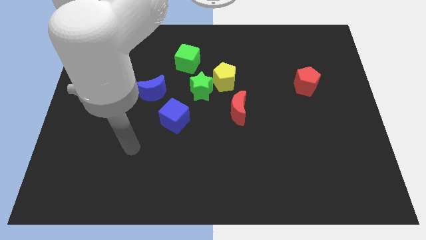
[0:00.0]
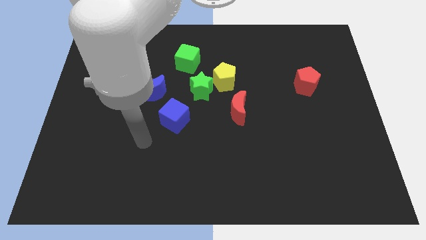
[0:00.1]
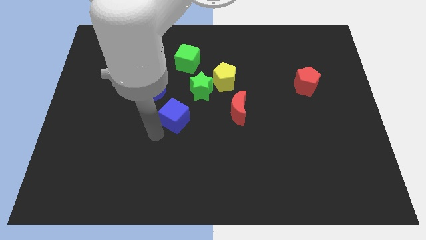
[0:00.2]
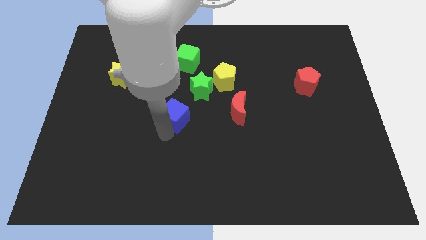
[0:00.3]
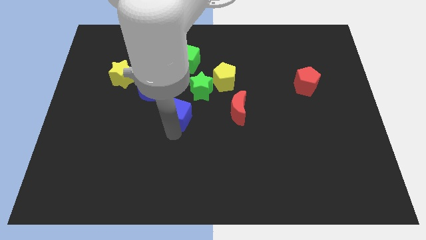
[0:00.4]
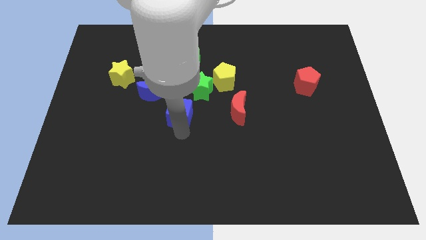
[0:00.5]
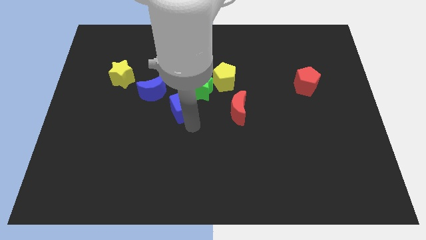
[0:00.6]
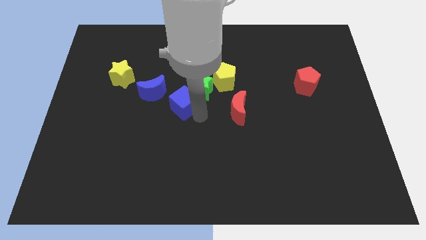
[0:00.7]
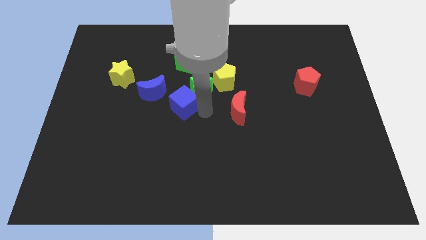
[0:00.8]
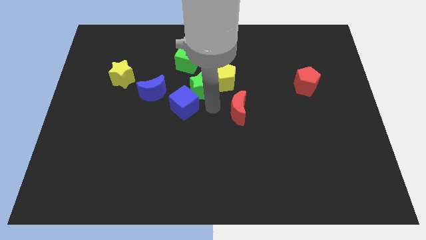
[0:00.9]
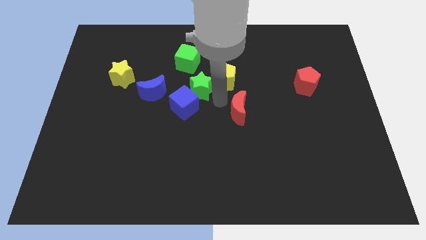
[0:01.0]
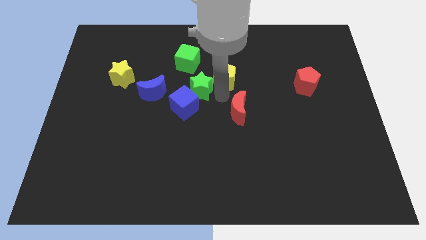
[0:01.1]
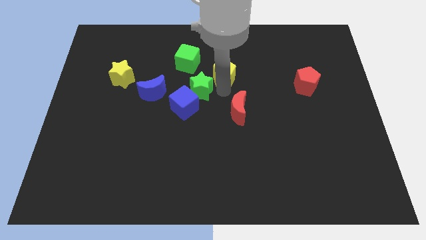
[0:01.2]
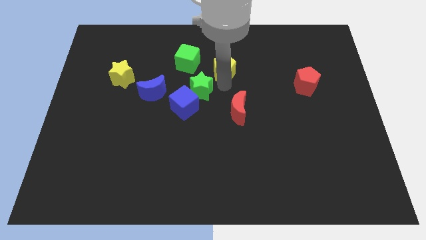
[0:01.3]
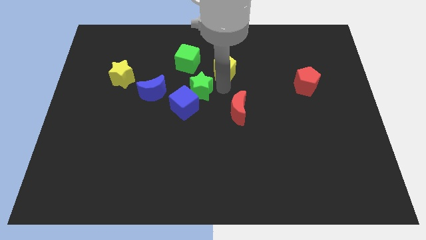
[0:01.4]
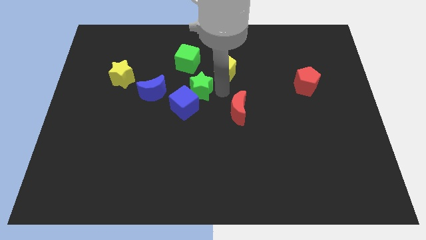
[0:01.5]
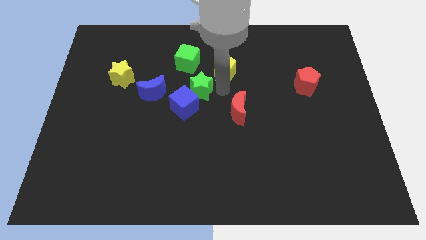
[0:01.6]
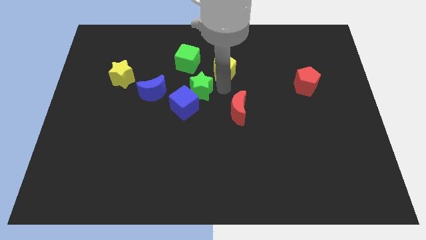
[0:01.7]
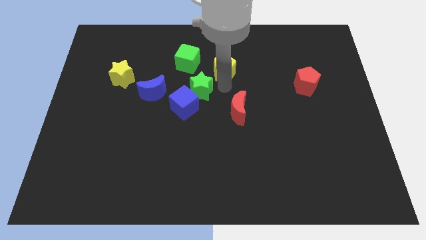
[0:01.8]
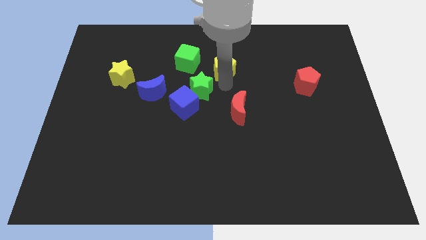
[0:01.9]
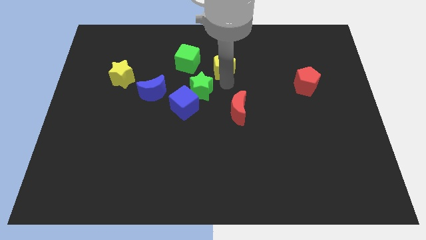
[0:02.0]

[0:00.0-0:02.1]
separate the yellow pentagon from the green star and red moon

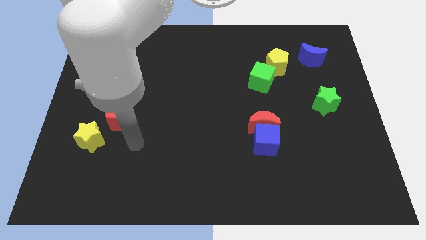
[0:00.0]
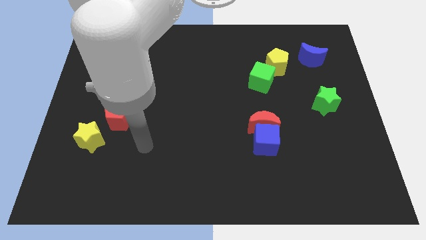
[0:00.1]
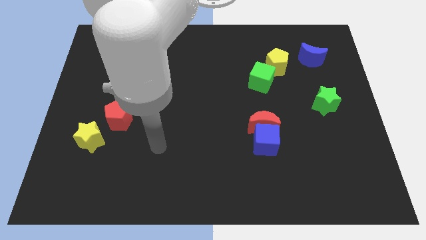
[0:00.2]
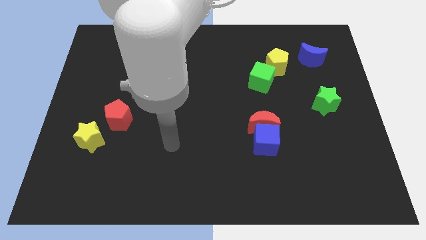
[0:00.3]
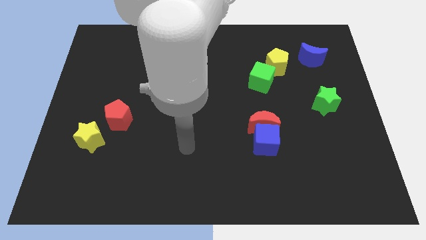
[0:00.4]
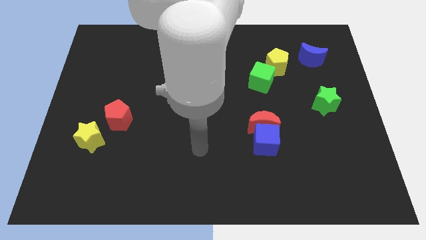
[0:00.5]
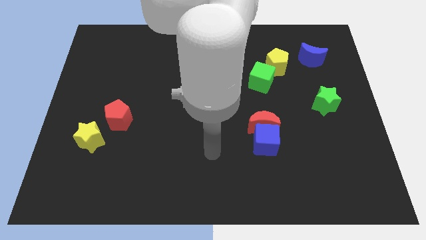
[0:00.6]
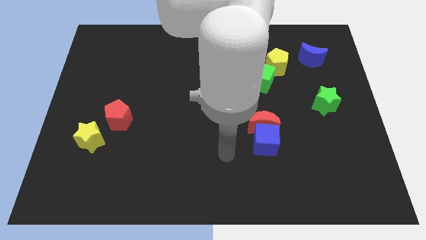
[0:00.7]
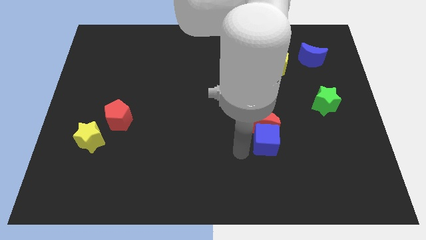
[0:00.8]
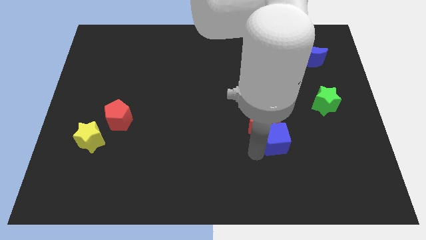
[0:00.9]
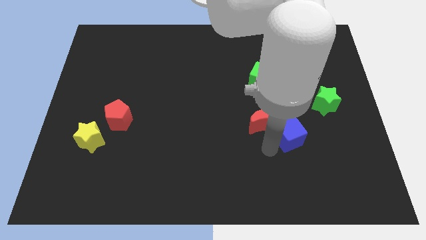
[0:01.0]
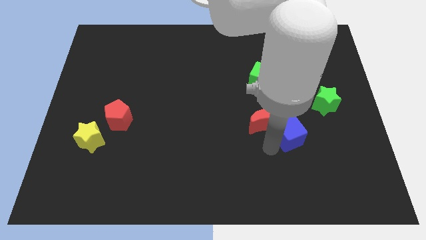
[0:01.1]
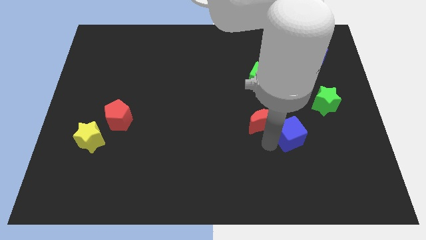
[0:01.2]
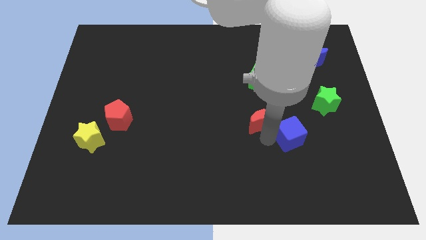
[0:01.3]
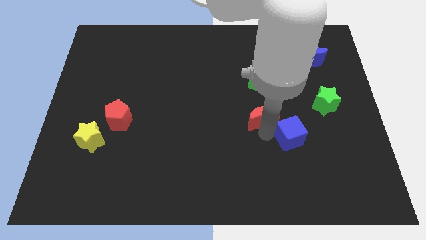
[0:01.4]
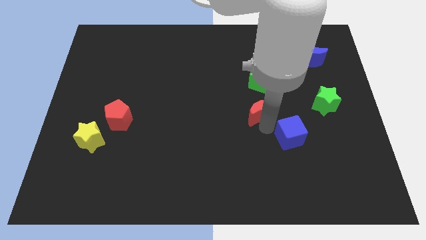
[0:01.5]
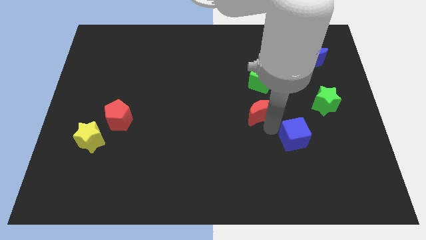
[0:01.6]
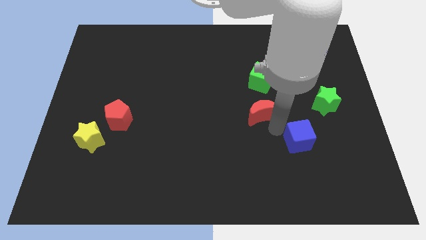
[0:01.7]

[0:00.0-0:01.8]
separate the red moon from the blue cube

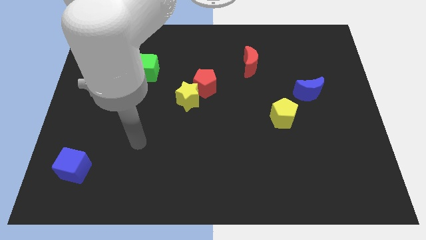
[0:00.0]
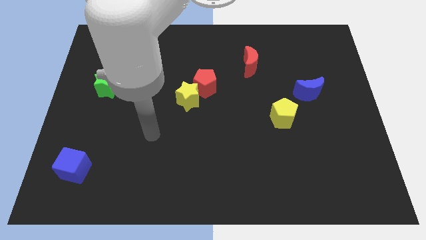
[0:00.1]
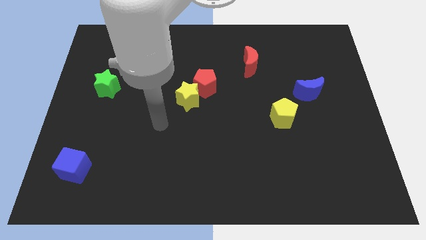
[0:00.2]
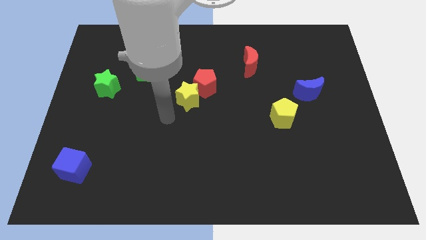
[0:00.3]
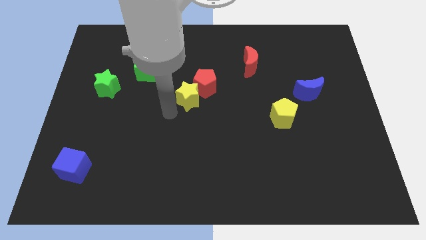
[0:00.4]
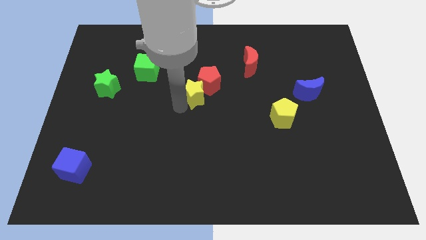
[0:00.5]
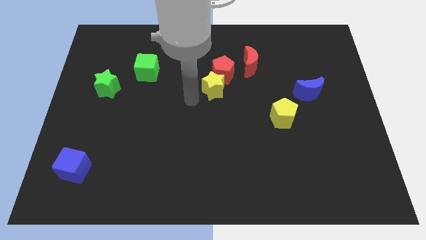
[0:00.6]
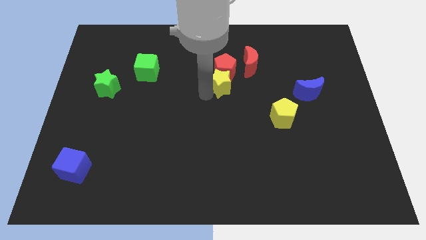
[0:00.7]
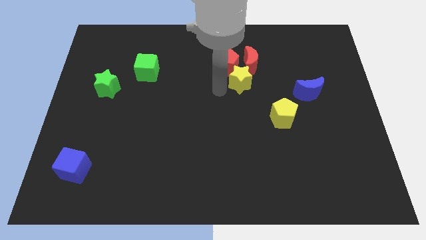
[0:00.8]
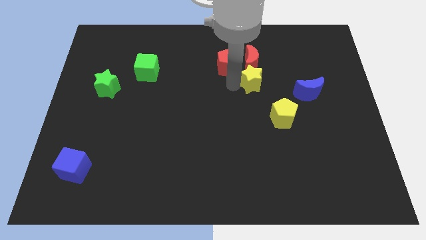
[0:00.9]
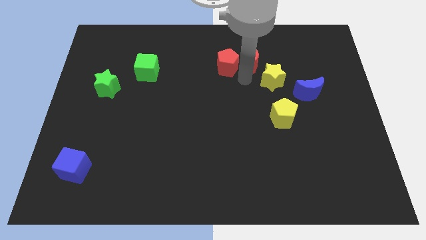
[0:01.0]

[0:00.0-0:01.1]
pull the red pentagon apart from the yellow star

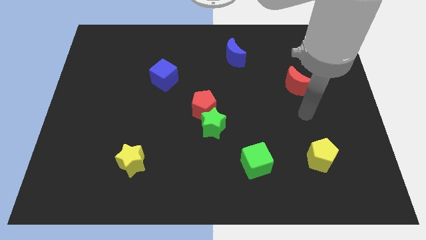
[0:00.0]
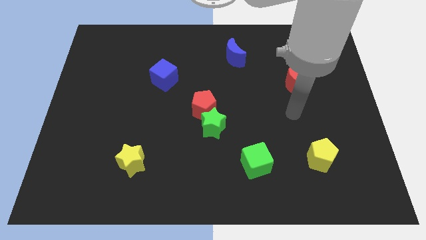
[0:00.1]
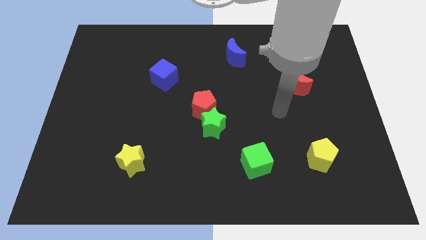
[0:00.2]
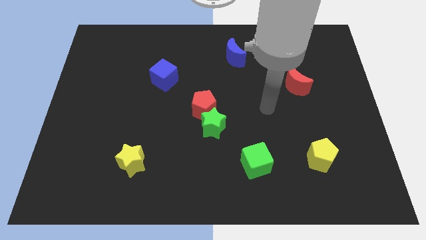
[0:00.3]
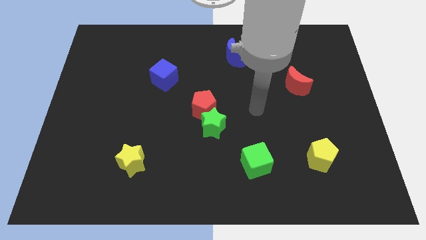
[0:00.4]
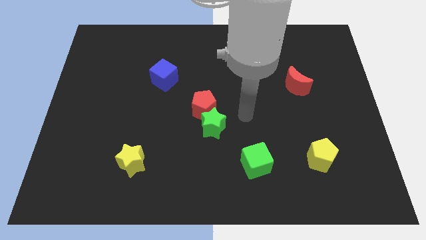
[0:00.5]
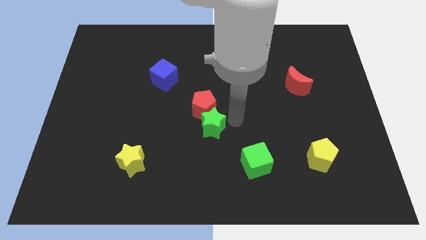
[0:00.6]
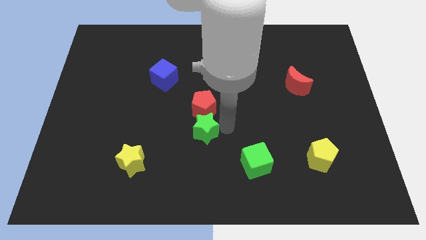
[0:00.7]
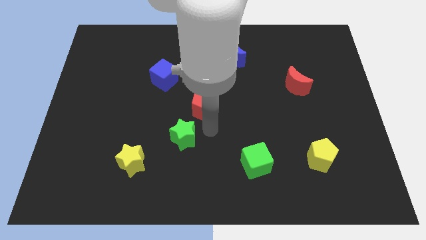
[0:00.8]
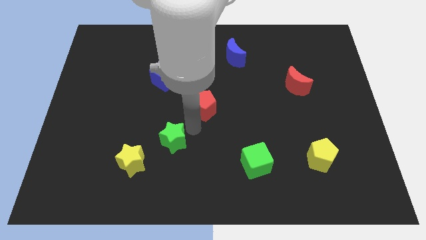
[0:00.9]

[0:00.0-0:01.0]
move the red pentagon away from the green star

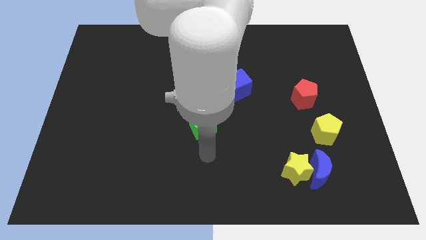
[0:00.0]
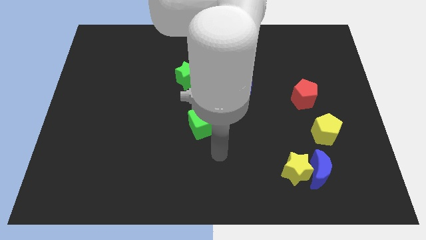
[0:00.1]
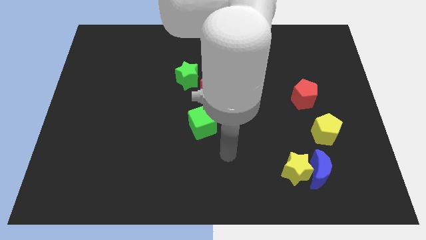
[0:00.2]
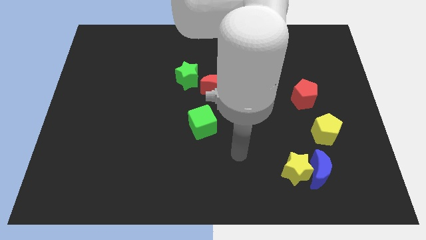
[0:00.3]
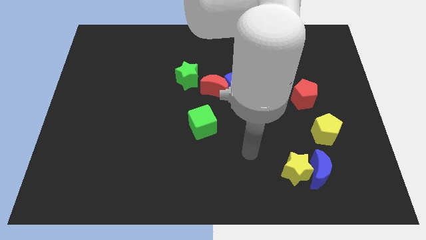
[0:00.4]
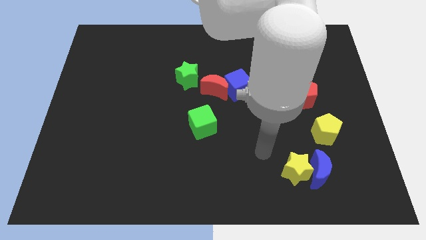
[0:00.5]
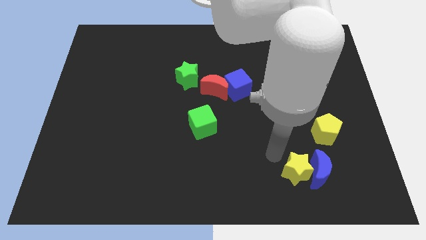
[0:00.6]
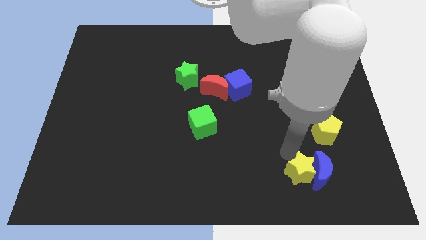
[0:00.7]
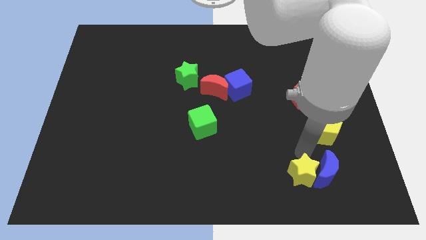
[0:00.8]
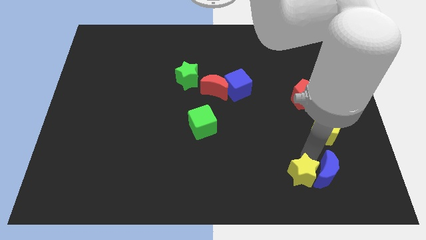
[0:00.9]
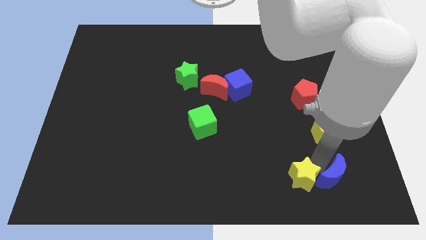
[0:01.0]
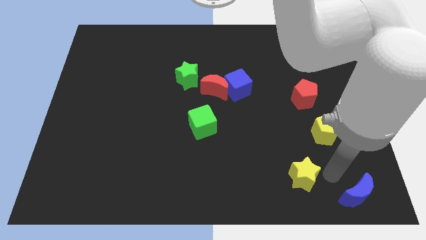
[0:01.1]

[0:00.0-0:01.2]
pull the yellow star apart from the blue moon

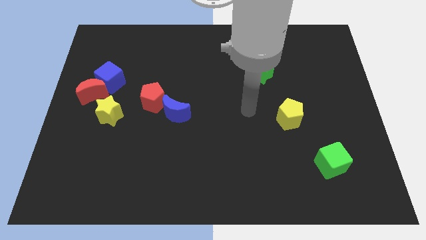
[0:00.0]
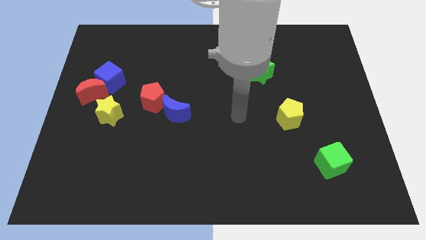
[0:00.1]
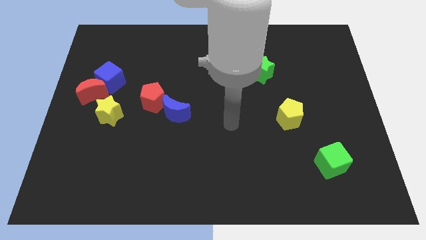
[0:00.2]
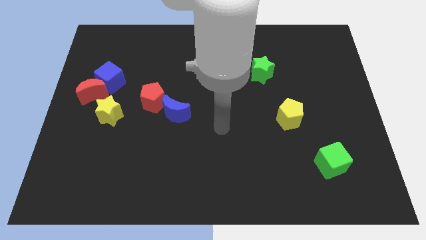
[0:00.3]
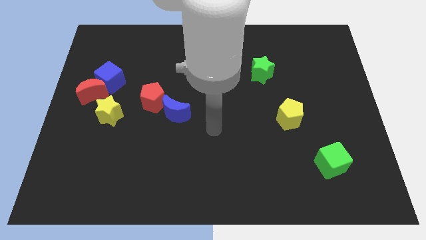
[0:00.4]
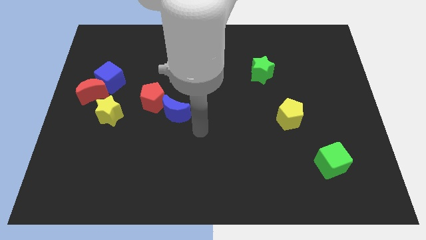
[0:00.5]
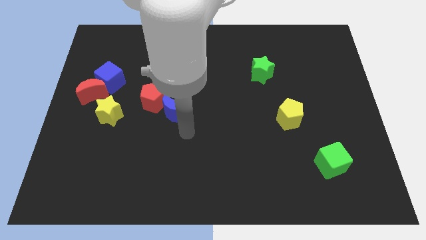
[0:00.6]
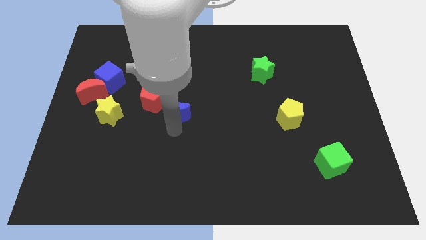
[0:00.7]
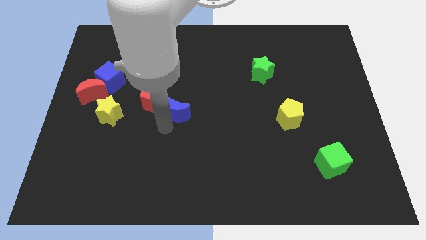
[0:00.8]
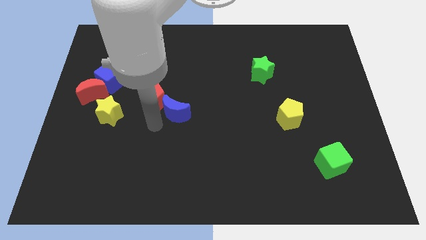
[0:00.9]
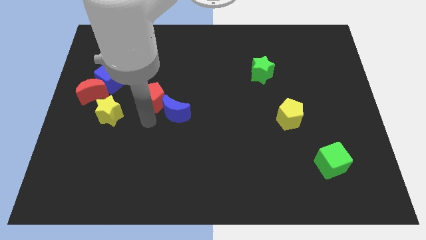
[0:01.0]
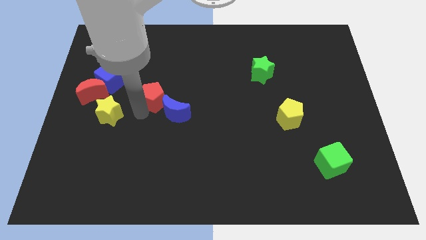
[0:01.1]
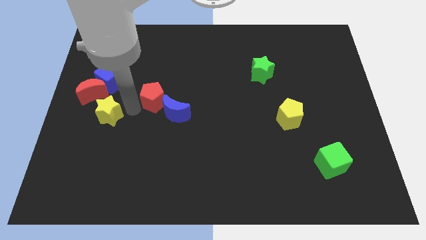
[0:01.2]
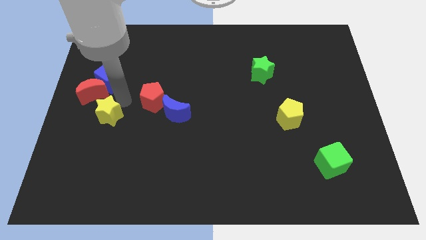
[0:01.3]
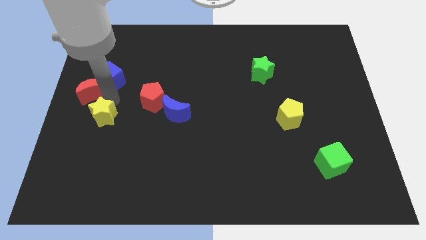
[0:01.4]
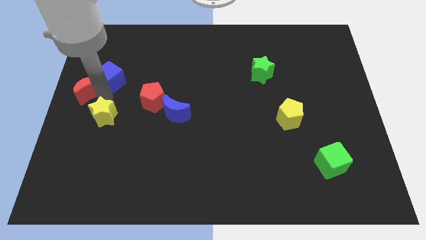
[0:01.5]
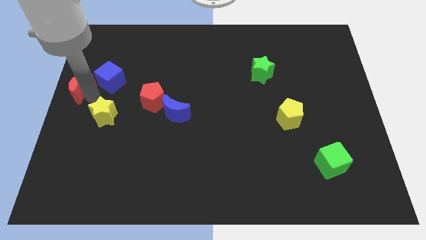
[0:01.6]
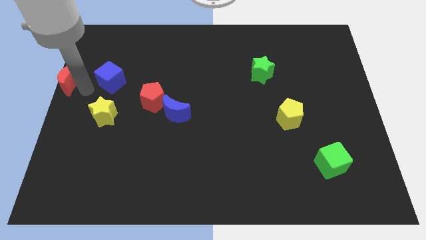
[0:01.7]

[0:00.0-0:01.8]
pull the blue cube apart from the red moon

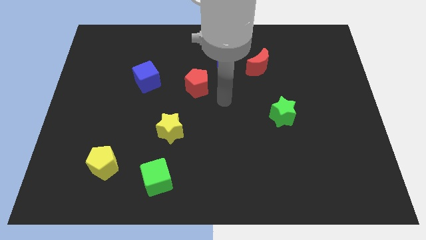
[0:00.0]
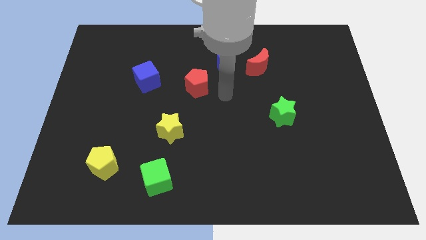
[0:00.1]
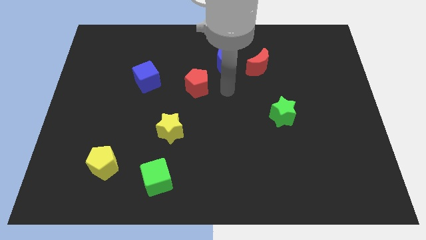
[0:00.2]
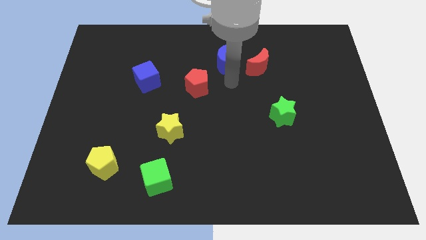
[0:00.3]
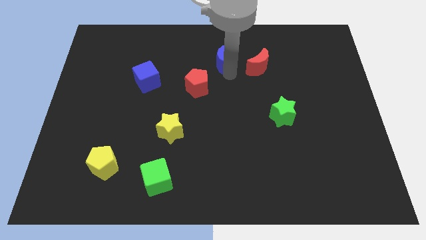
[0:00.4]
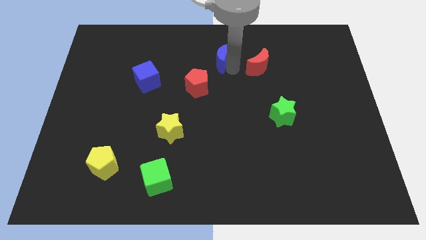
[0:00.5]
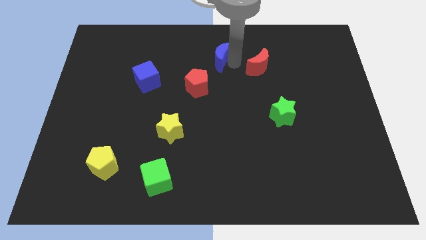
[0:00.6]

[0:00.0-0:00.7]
pull the red moon apart from the blue moon
